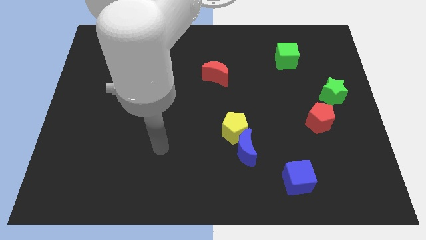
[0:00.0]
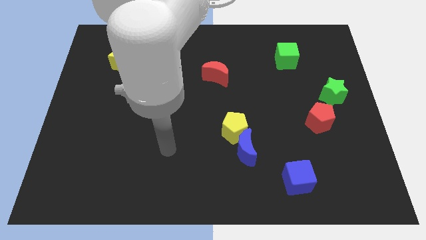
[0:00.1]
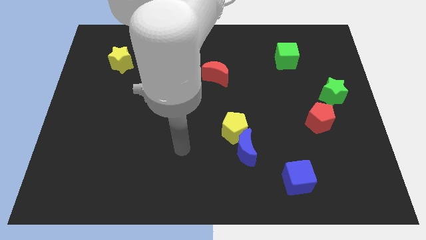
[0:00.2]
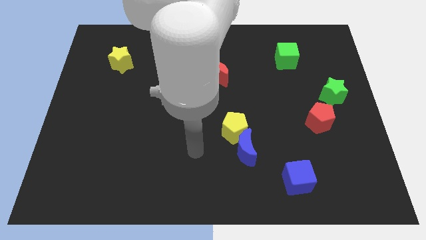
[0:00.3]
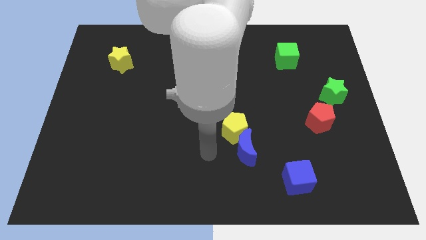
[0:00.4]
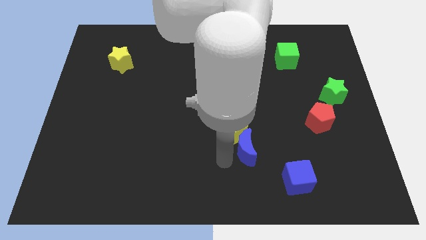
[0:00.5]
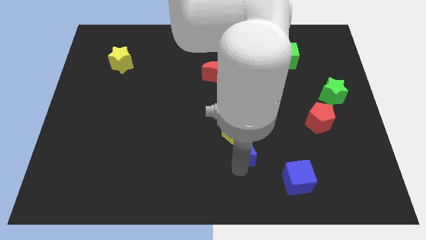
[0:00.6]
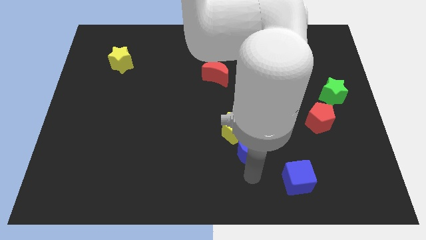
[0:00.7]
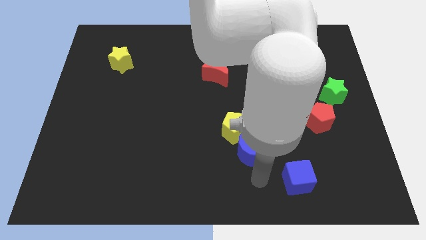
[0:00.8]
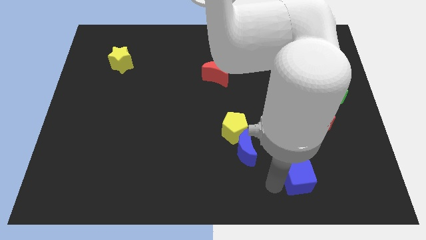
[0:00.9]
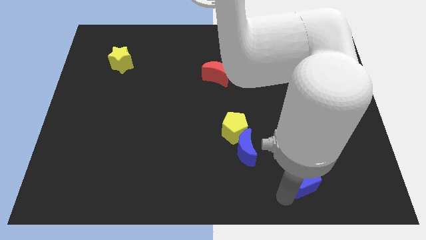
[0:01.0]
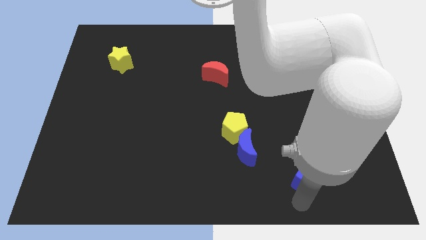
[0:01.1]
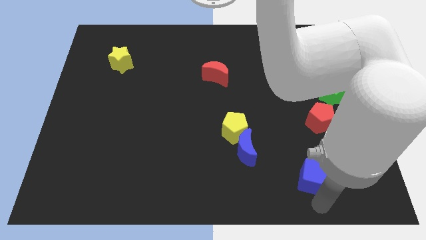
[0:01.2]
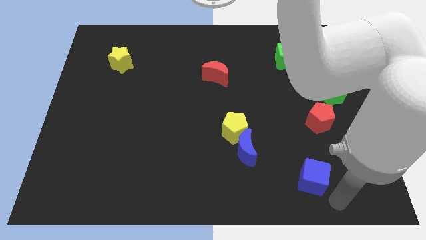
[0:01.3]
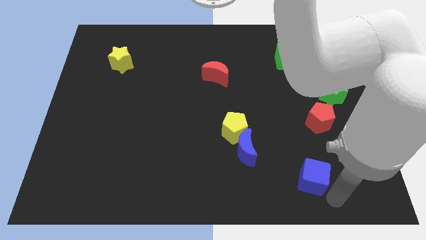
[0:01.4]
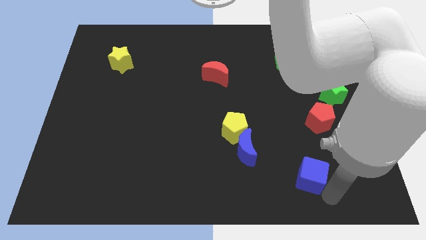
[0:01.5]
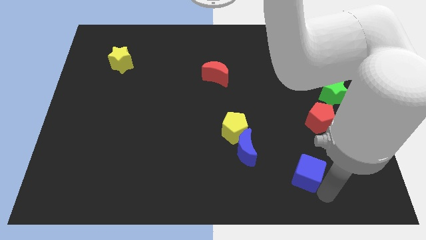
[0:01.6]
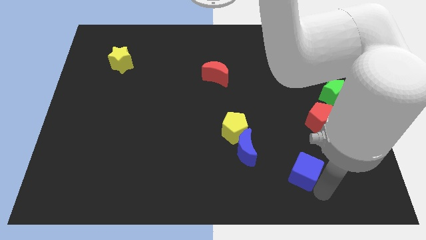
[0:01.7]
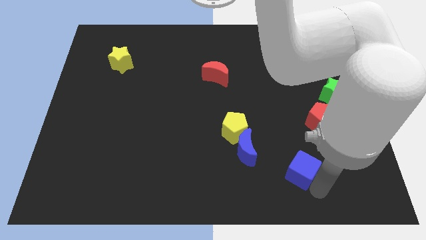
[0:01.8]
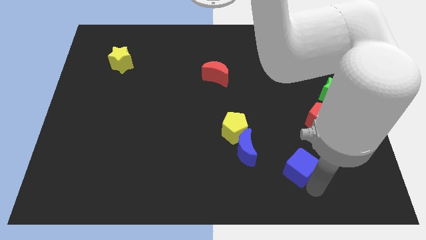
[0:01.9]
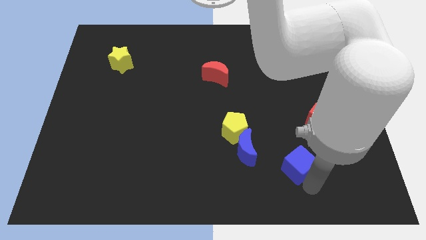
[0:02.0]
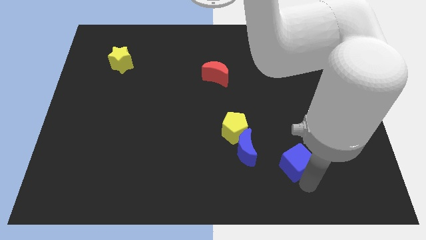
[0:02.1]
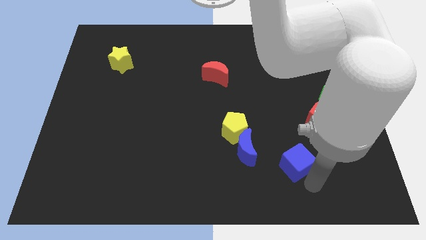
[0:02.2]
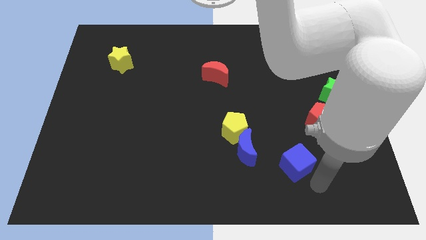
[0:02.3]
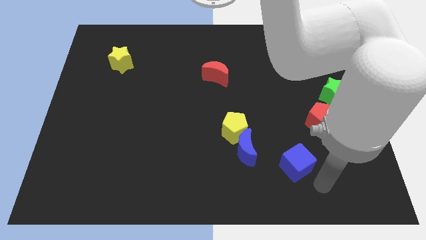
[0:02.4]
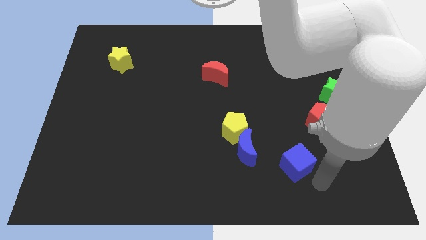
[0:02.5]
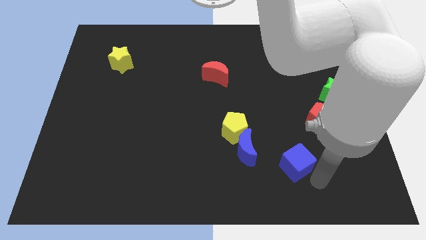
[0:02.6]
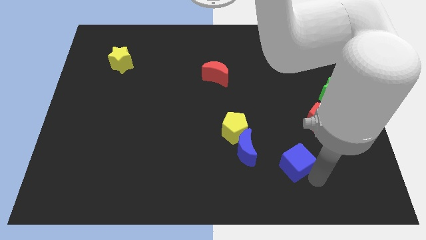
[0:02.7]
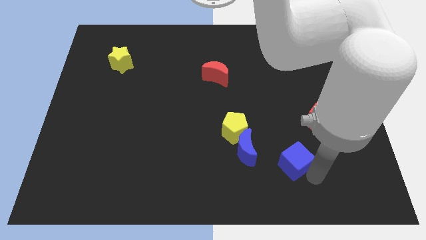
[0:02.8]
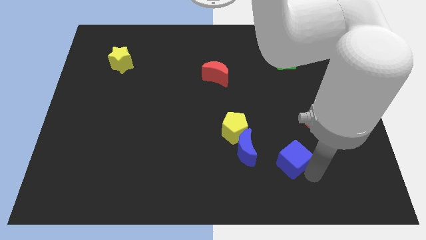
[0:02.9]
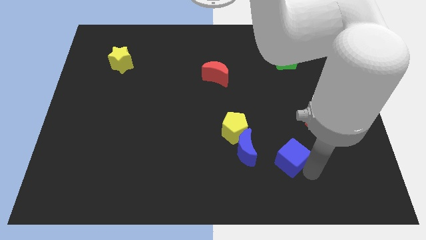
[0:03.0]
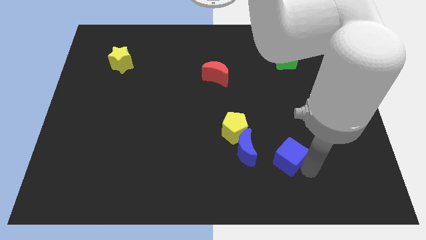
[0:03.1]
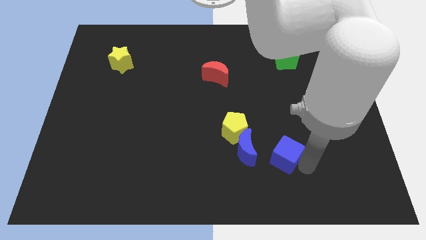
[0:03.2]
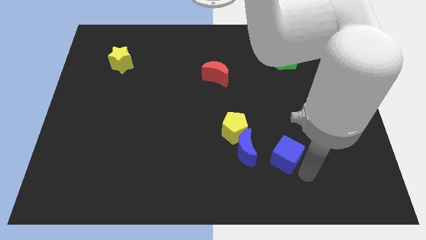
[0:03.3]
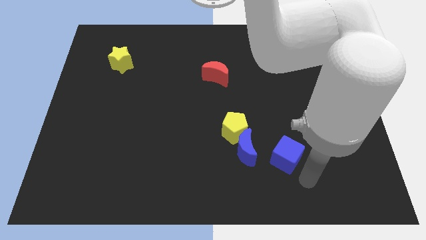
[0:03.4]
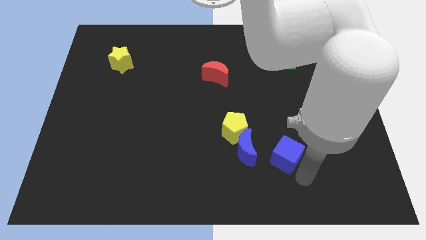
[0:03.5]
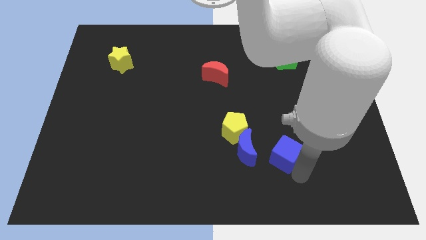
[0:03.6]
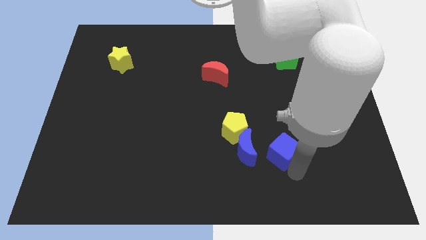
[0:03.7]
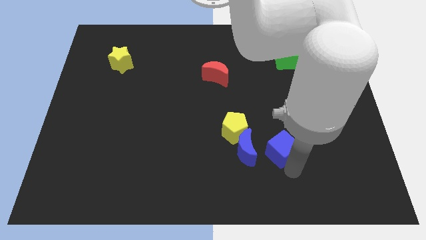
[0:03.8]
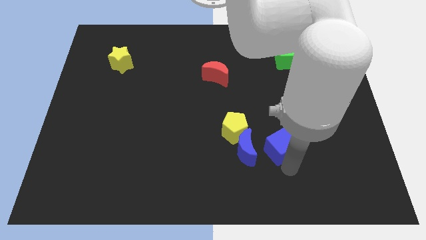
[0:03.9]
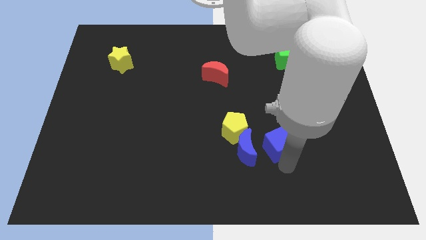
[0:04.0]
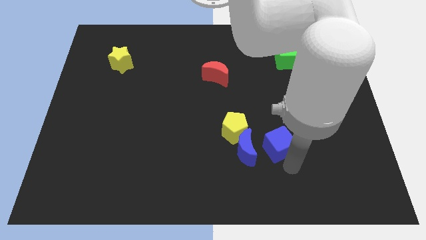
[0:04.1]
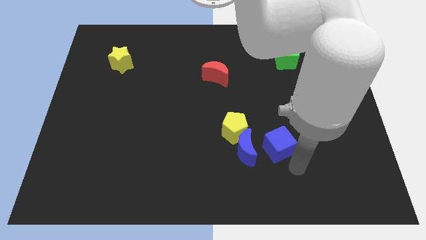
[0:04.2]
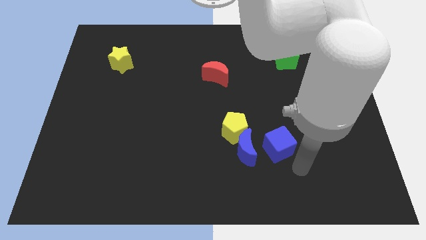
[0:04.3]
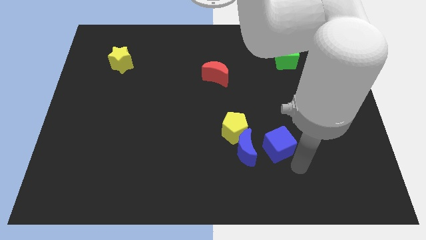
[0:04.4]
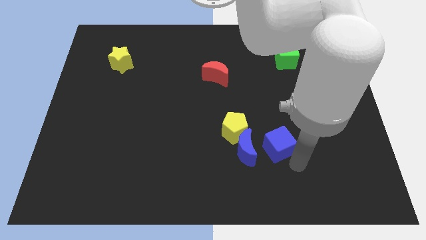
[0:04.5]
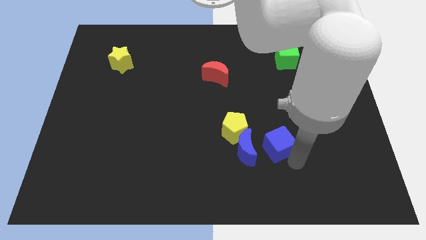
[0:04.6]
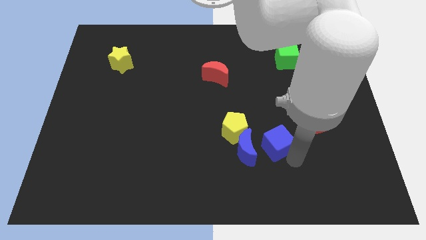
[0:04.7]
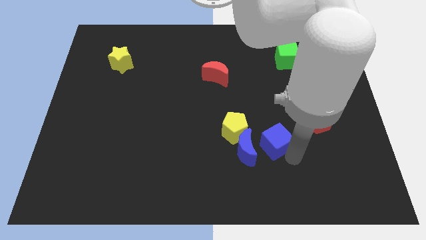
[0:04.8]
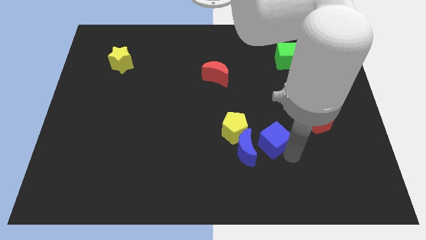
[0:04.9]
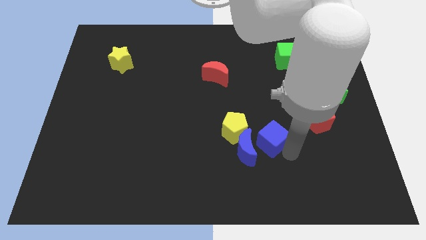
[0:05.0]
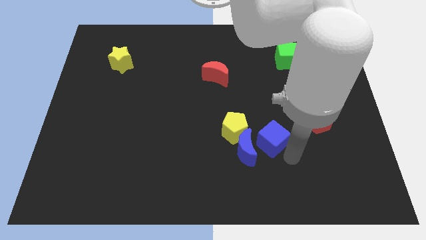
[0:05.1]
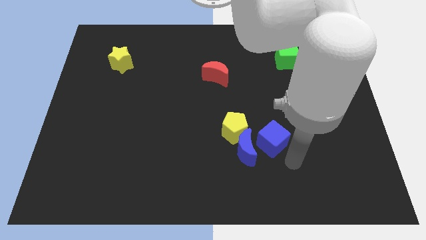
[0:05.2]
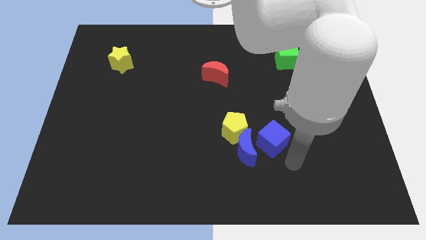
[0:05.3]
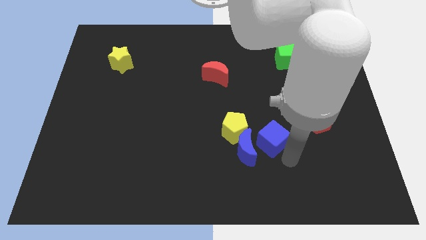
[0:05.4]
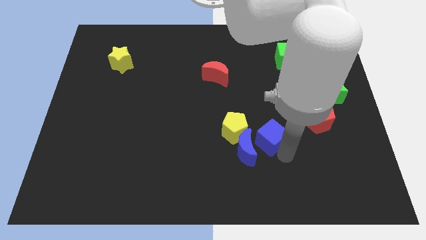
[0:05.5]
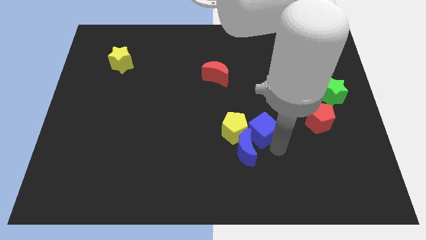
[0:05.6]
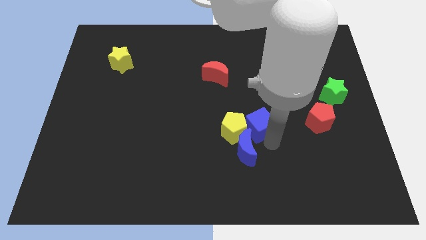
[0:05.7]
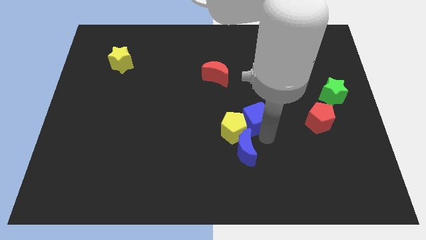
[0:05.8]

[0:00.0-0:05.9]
push the blue cube to the middle
